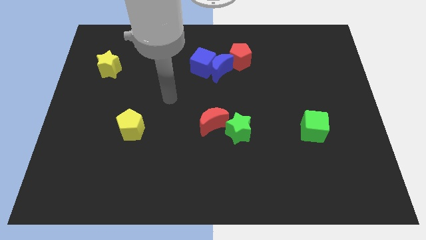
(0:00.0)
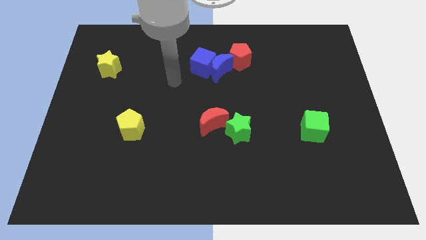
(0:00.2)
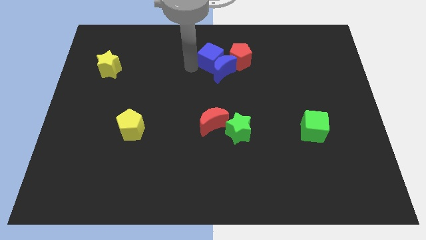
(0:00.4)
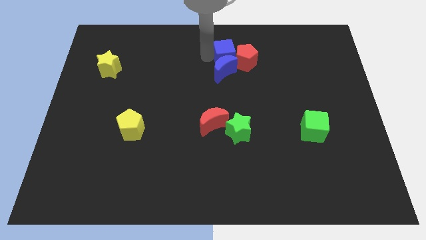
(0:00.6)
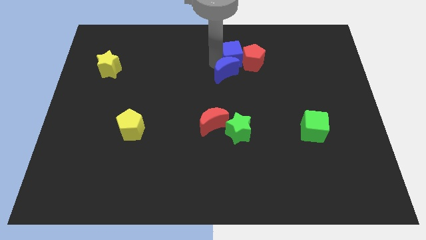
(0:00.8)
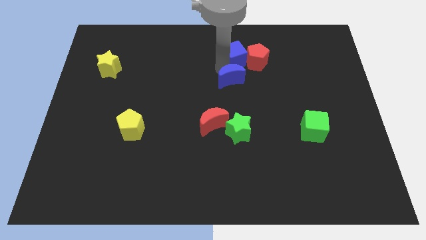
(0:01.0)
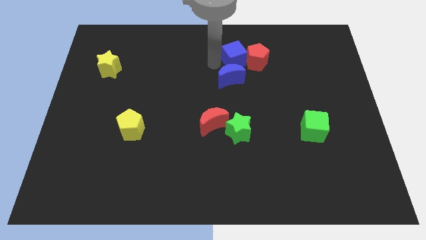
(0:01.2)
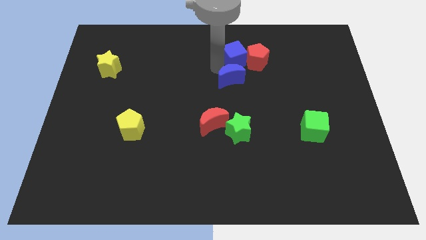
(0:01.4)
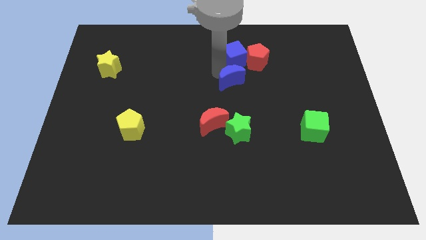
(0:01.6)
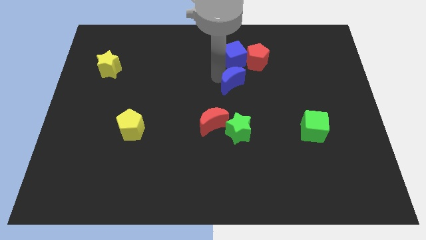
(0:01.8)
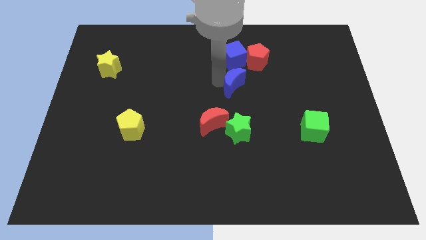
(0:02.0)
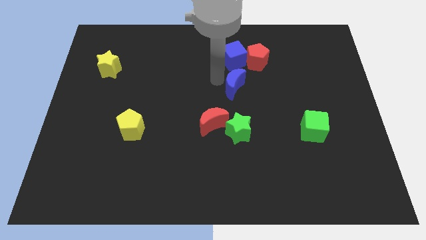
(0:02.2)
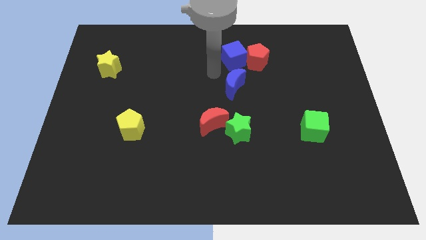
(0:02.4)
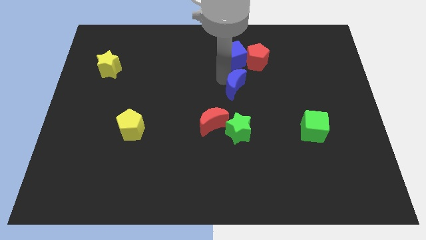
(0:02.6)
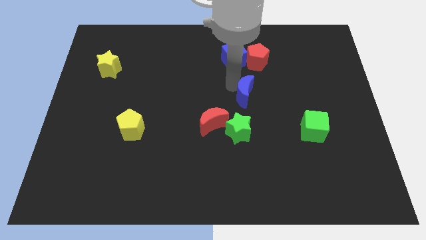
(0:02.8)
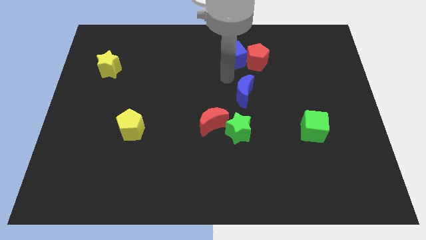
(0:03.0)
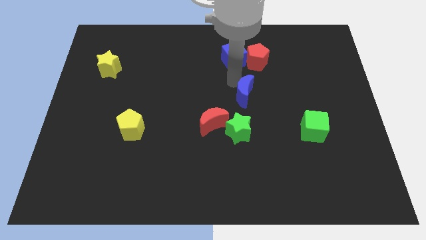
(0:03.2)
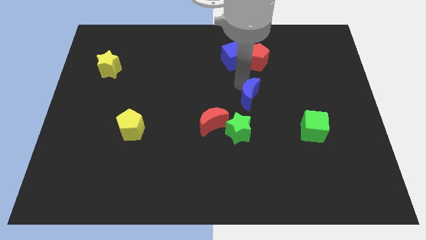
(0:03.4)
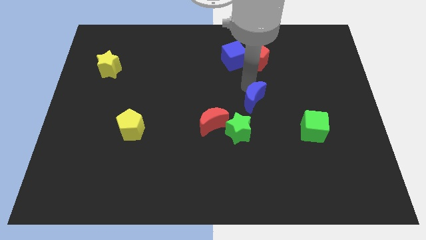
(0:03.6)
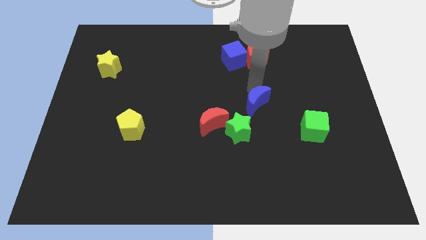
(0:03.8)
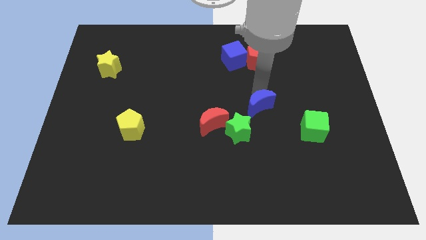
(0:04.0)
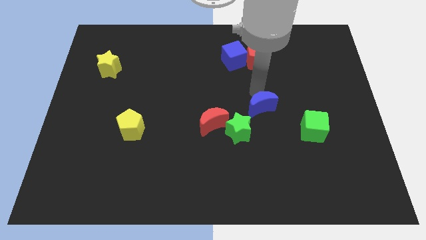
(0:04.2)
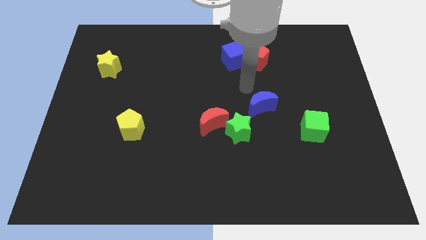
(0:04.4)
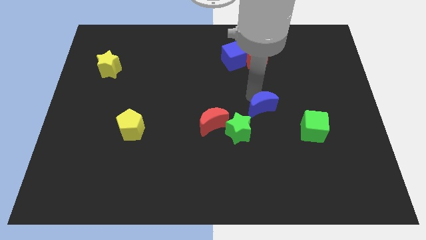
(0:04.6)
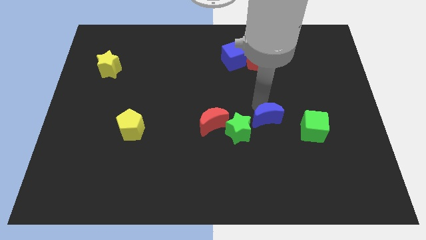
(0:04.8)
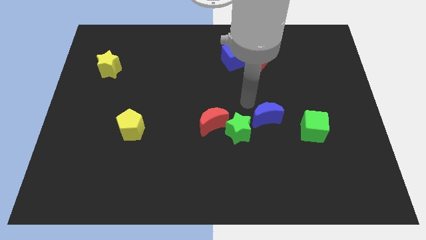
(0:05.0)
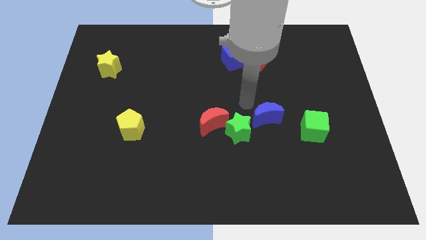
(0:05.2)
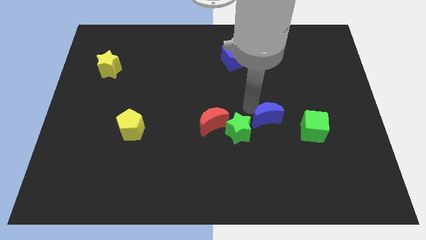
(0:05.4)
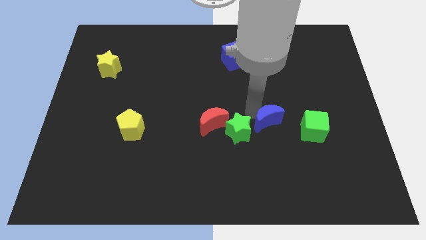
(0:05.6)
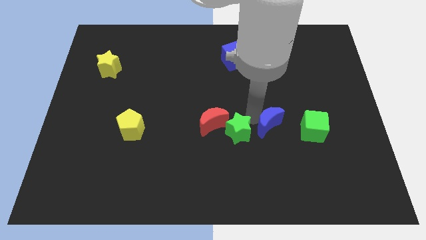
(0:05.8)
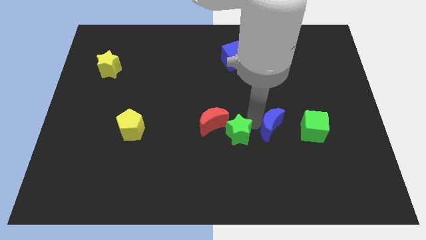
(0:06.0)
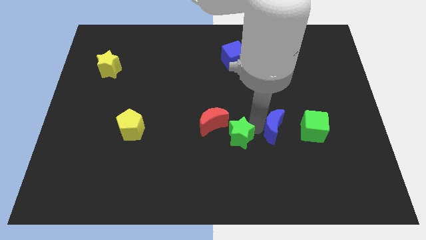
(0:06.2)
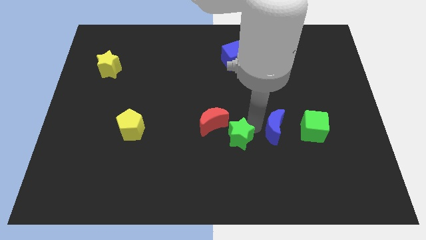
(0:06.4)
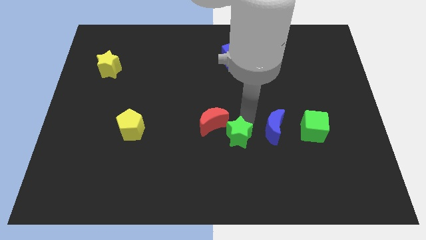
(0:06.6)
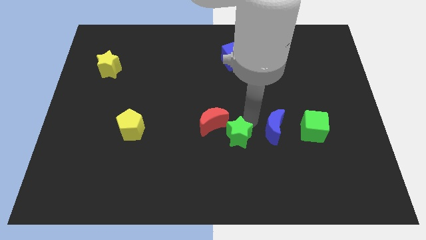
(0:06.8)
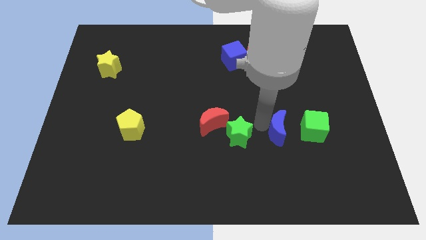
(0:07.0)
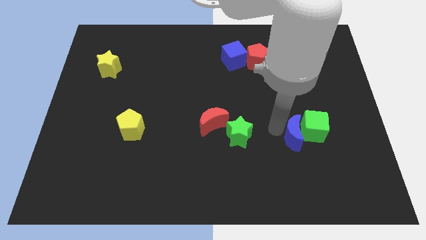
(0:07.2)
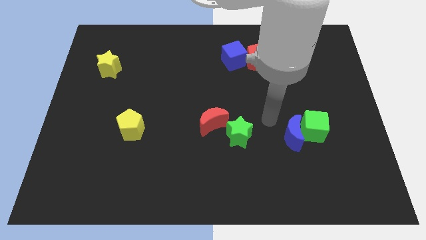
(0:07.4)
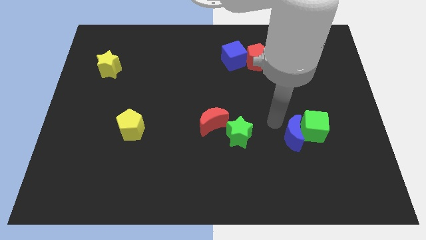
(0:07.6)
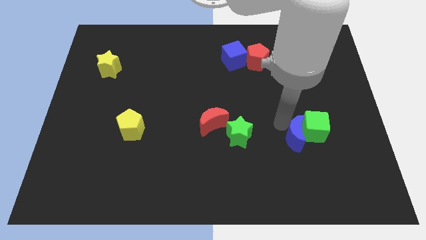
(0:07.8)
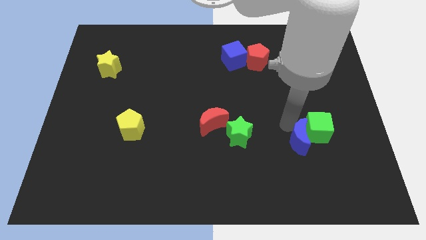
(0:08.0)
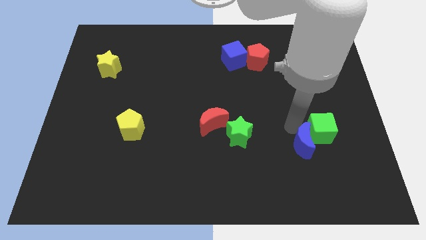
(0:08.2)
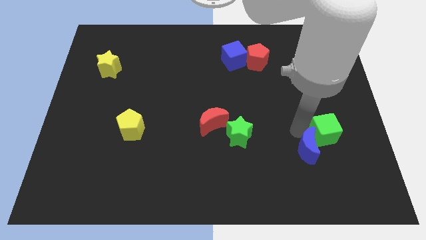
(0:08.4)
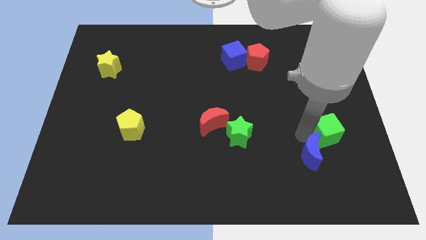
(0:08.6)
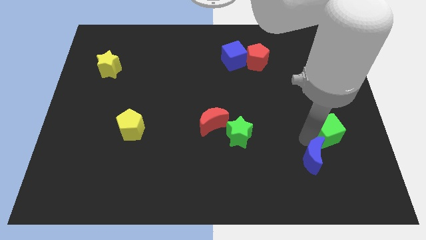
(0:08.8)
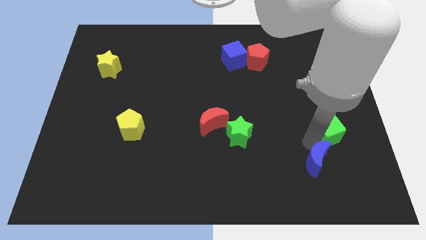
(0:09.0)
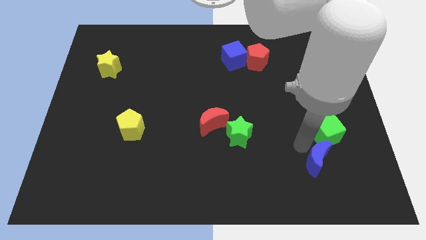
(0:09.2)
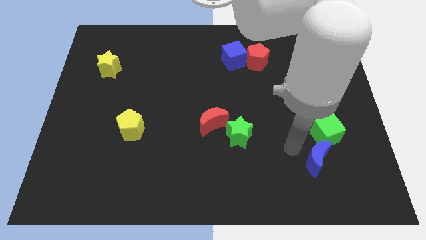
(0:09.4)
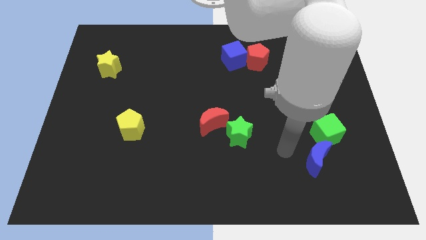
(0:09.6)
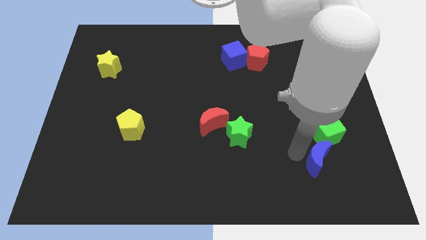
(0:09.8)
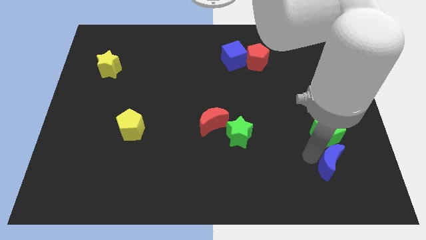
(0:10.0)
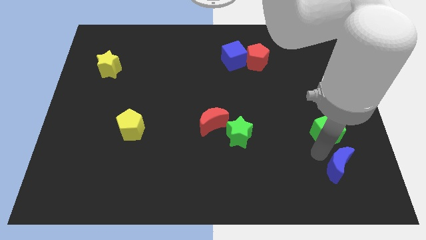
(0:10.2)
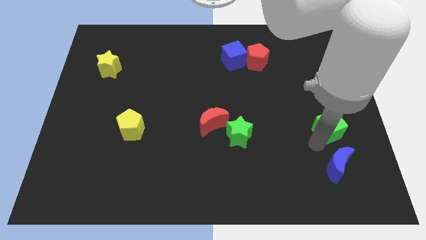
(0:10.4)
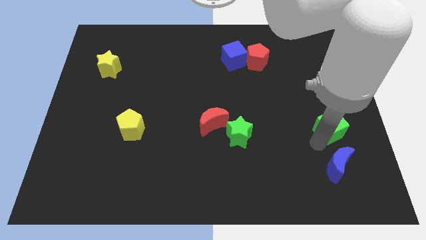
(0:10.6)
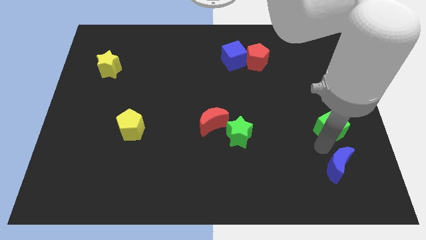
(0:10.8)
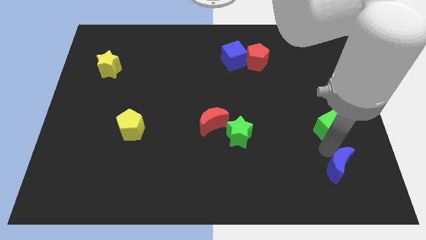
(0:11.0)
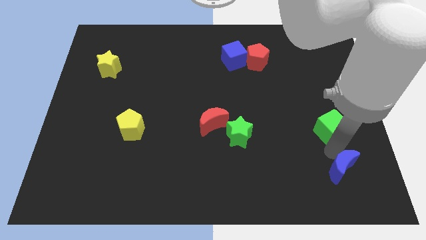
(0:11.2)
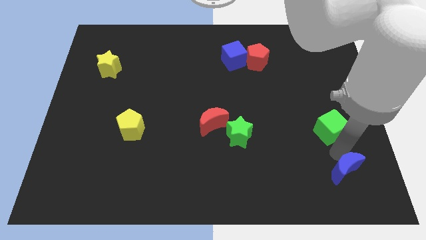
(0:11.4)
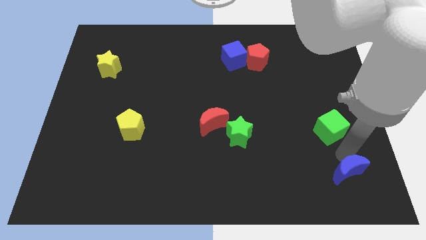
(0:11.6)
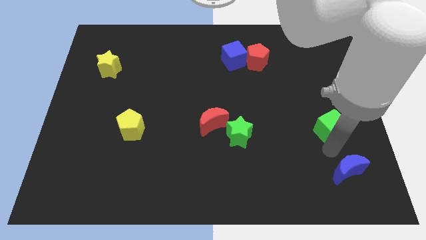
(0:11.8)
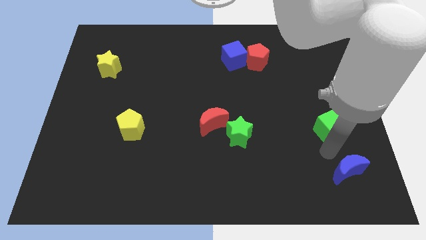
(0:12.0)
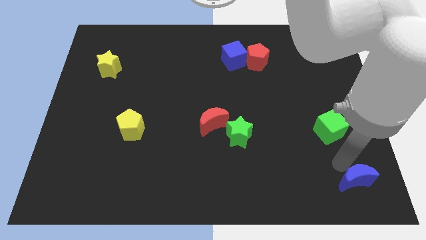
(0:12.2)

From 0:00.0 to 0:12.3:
push the blue moon to the bottom right corner

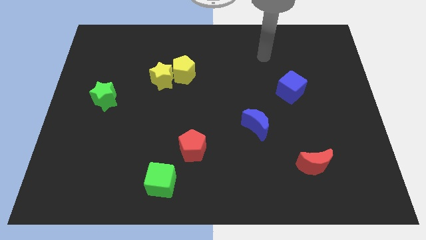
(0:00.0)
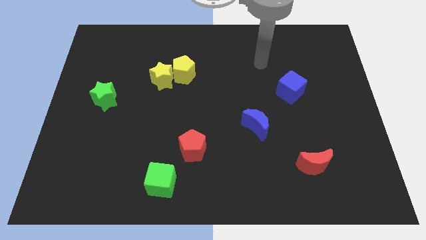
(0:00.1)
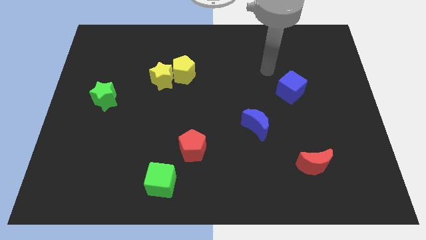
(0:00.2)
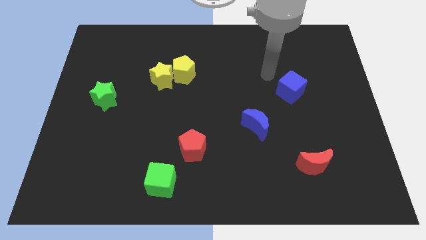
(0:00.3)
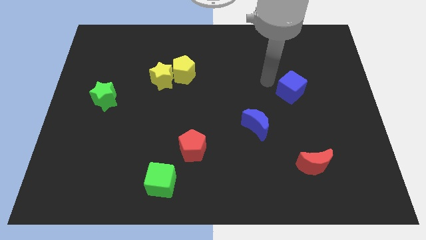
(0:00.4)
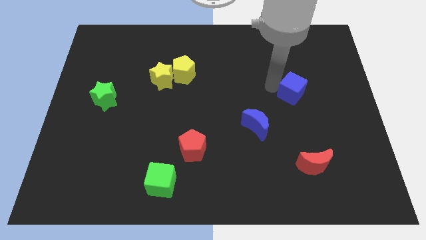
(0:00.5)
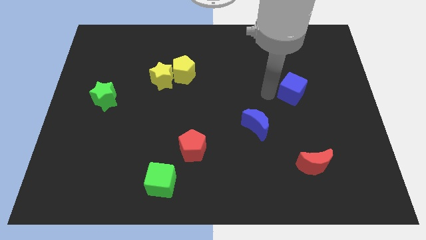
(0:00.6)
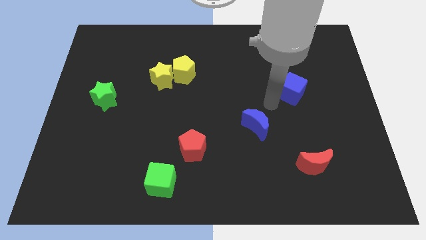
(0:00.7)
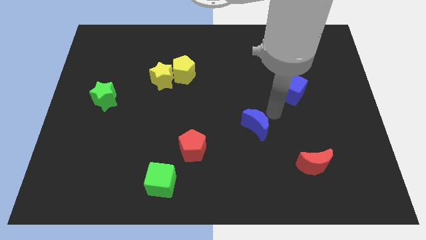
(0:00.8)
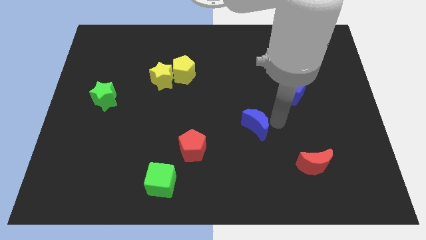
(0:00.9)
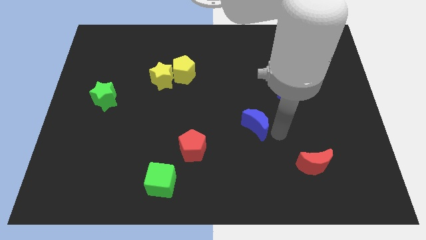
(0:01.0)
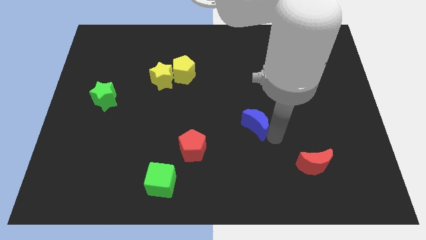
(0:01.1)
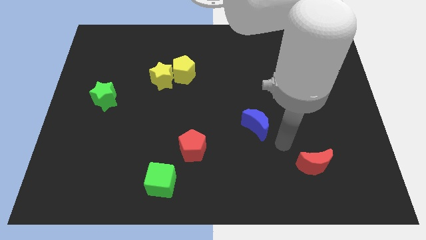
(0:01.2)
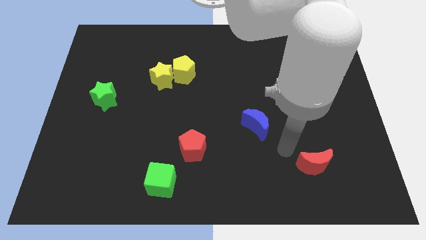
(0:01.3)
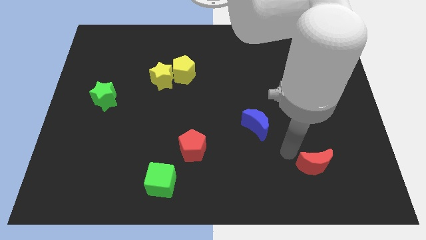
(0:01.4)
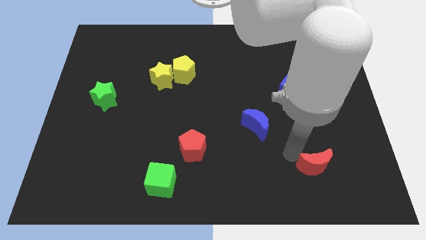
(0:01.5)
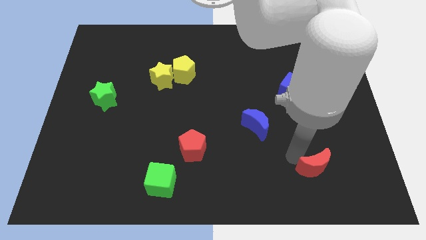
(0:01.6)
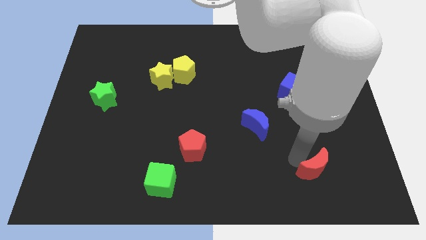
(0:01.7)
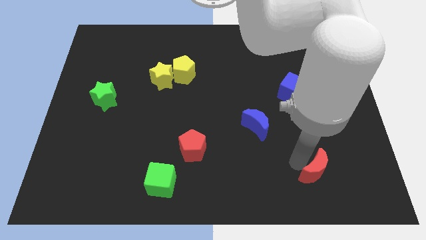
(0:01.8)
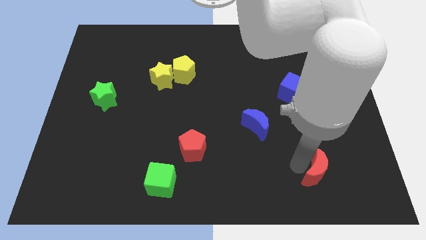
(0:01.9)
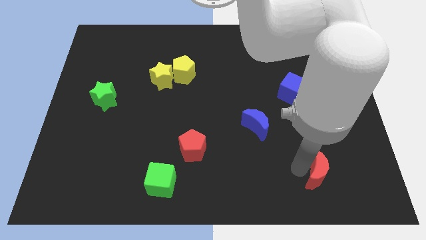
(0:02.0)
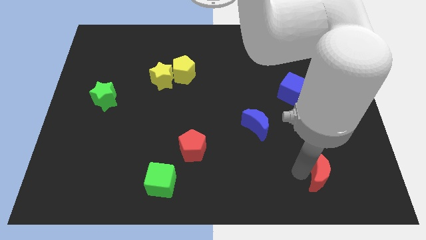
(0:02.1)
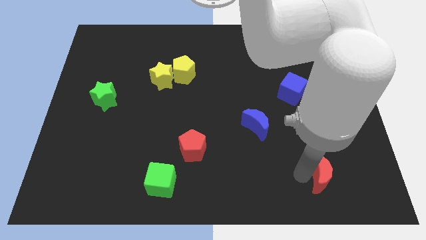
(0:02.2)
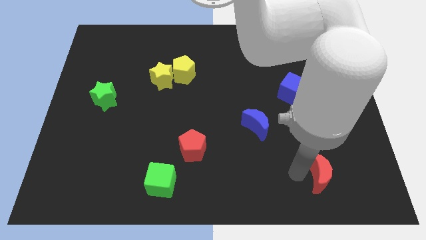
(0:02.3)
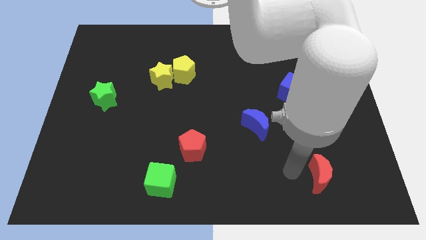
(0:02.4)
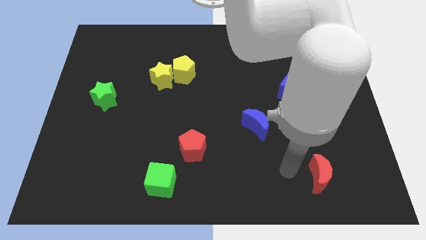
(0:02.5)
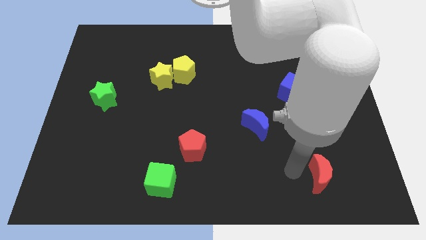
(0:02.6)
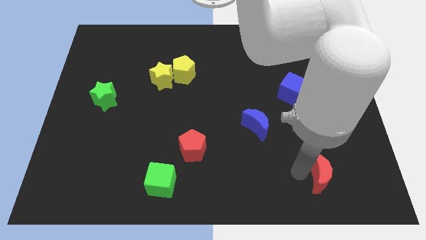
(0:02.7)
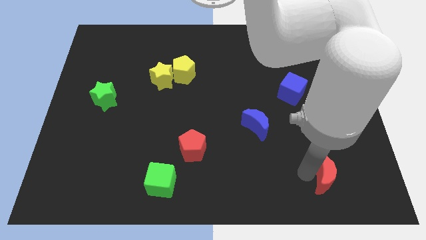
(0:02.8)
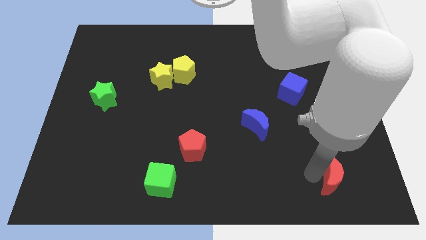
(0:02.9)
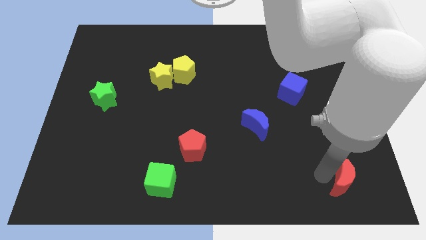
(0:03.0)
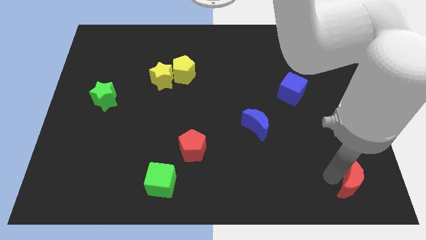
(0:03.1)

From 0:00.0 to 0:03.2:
put the red moon to the bottom right of the board
